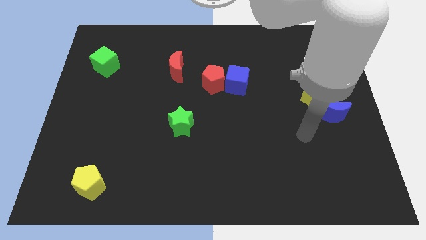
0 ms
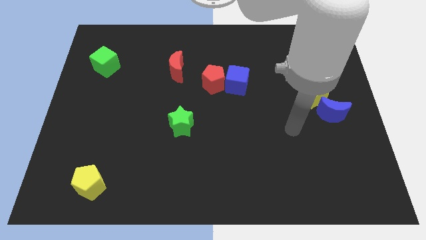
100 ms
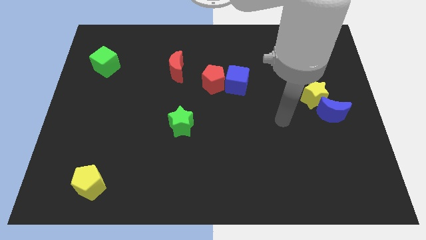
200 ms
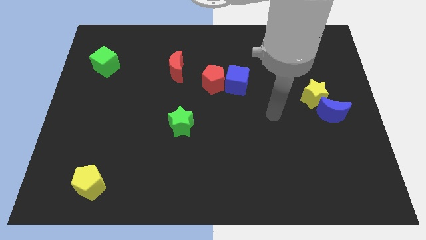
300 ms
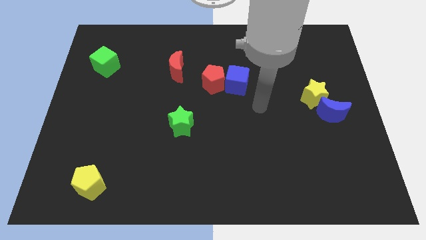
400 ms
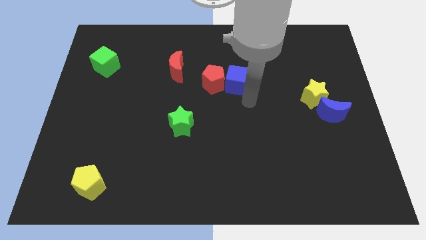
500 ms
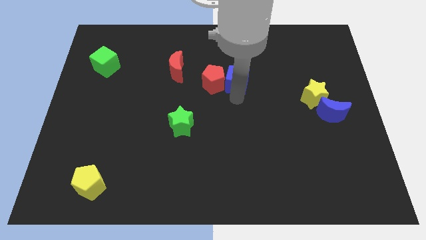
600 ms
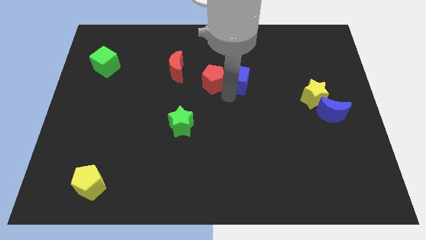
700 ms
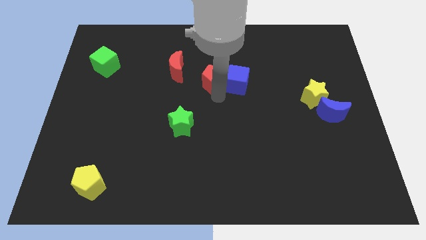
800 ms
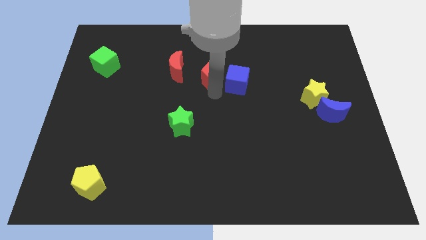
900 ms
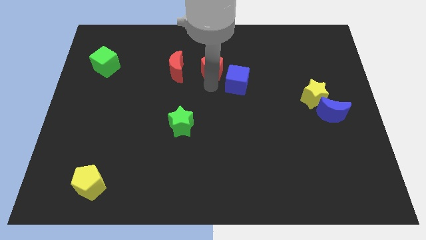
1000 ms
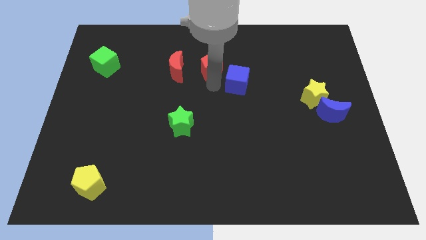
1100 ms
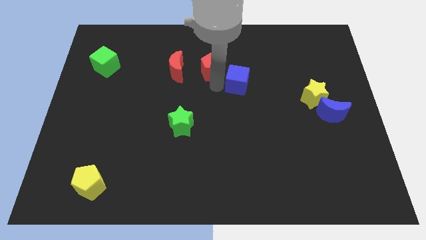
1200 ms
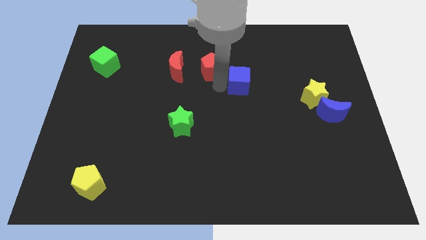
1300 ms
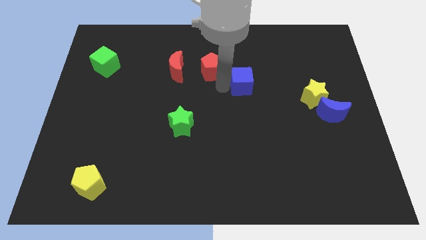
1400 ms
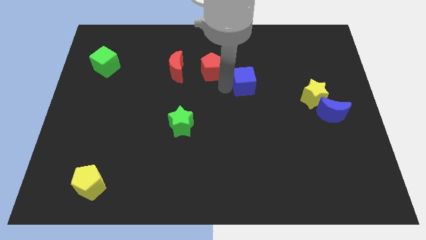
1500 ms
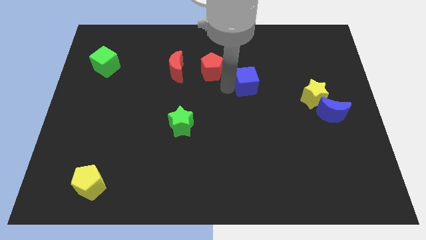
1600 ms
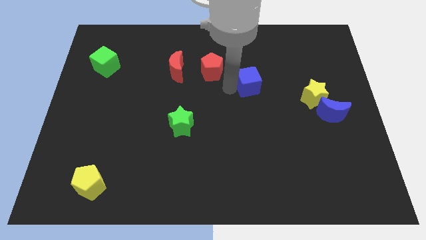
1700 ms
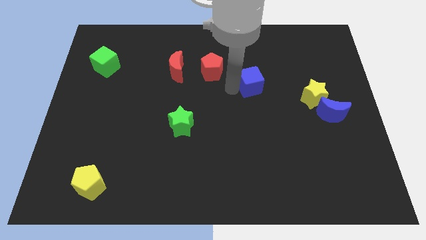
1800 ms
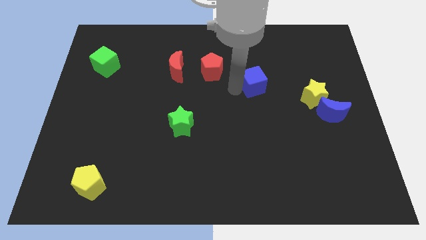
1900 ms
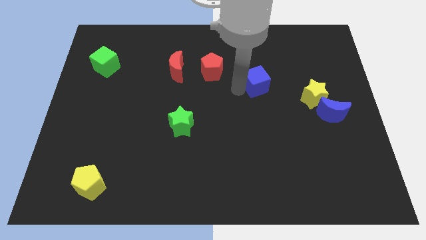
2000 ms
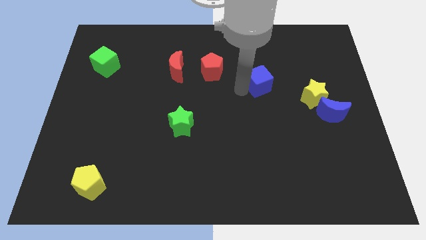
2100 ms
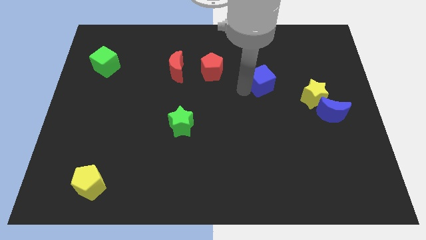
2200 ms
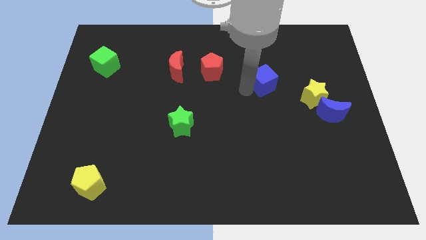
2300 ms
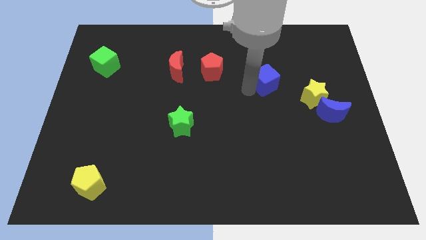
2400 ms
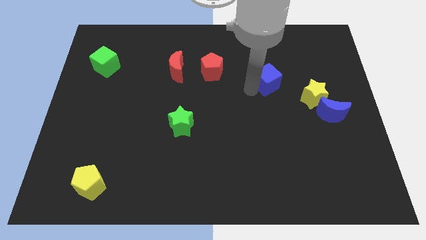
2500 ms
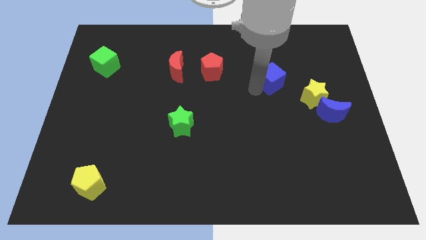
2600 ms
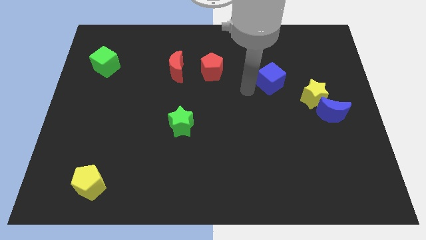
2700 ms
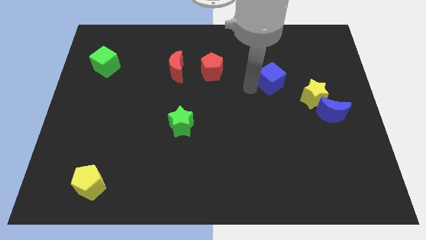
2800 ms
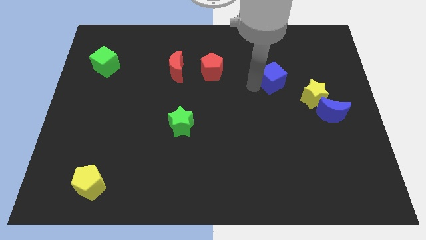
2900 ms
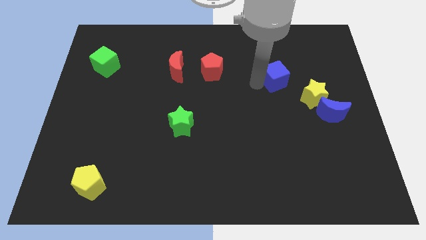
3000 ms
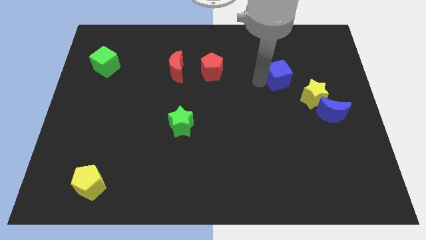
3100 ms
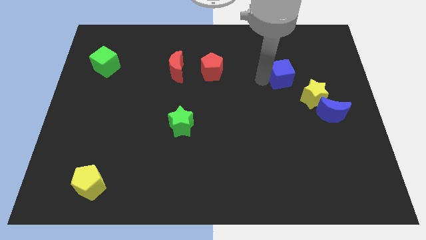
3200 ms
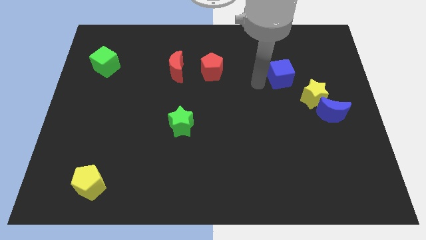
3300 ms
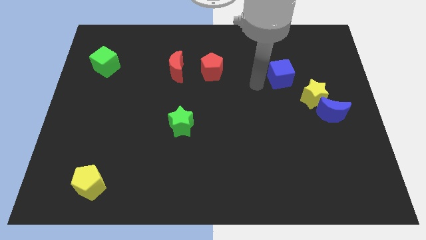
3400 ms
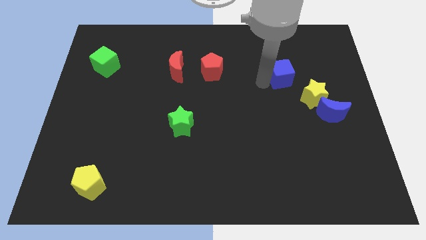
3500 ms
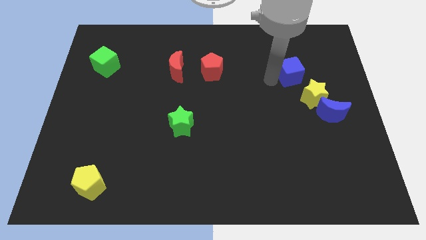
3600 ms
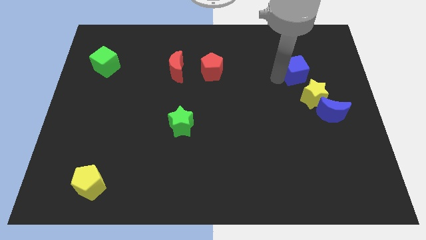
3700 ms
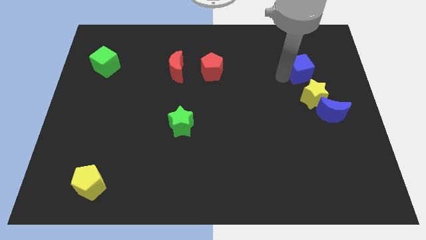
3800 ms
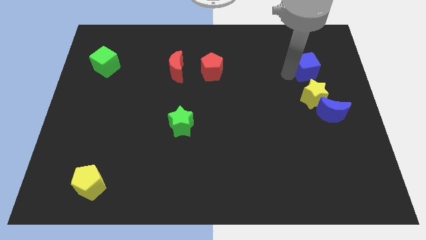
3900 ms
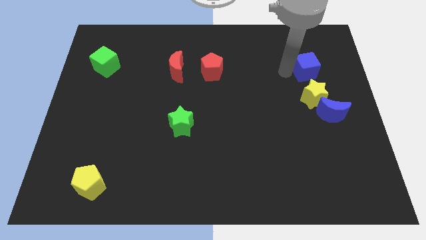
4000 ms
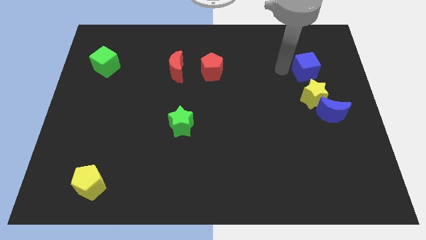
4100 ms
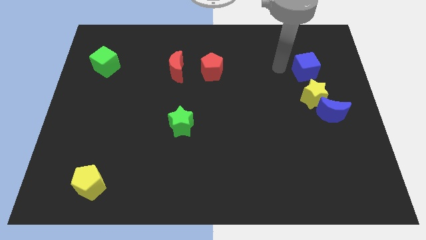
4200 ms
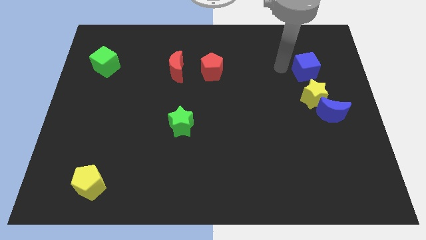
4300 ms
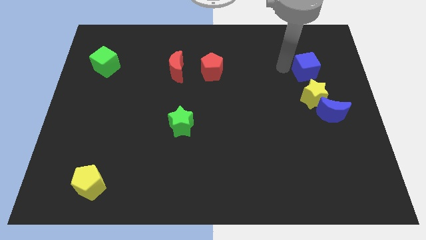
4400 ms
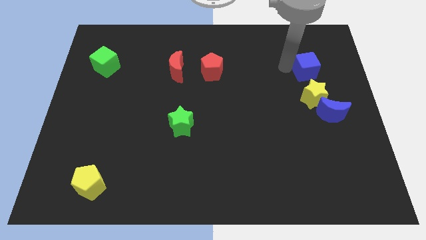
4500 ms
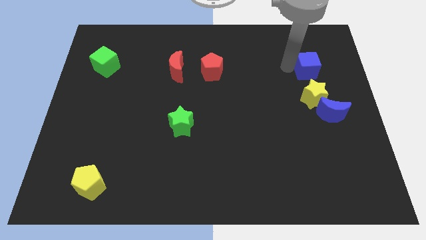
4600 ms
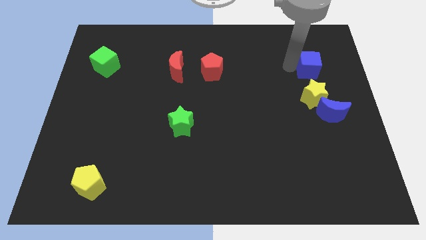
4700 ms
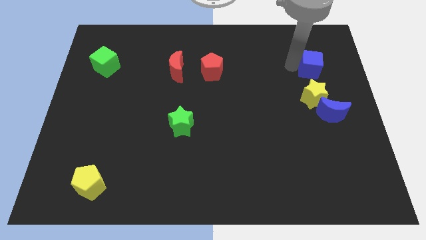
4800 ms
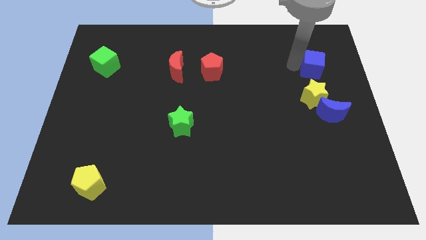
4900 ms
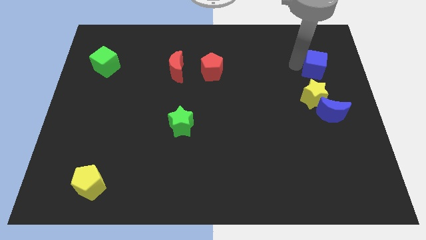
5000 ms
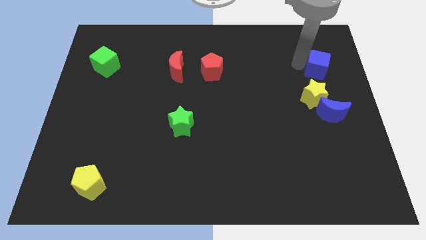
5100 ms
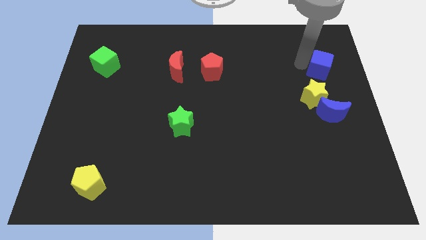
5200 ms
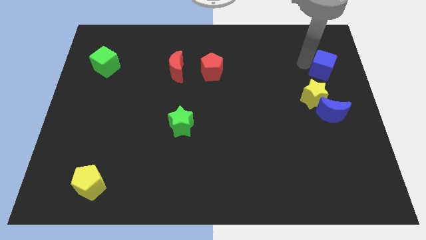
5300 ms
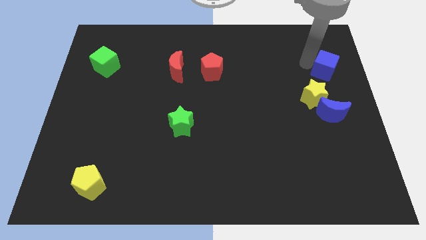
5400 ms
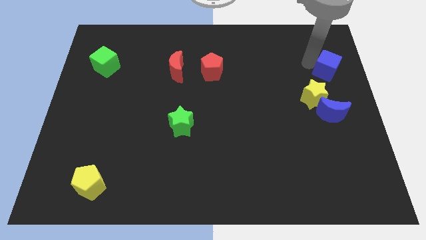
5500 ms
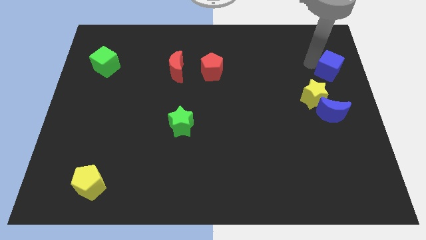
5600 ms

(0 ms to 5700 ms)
put the blue cube to the right side of the board

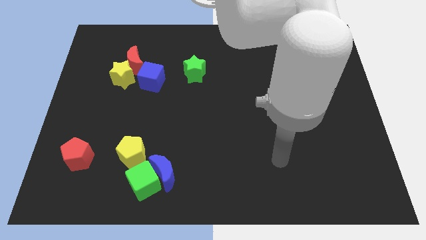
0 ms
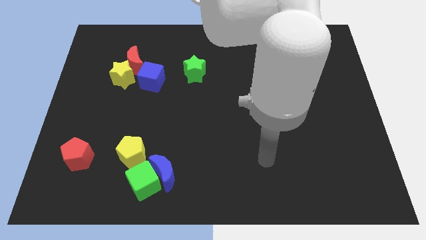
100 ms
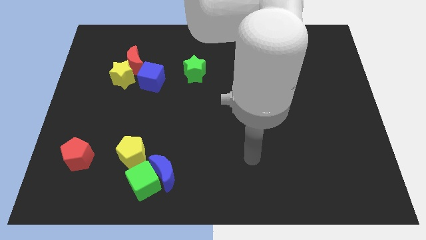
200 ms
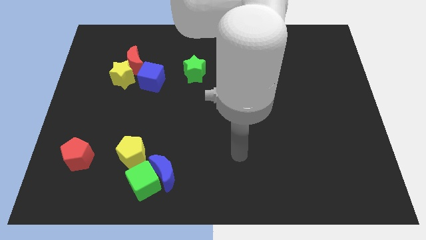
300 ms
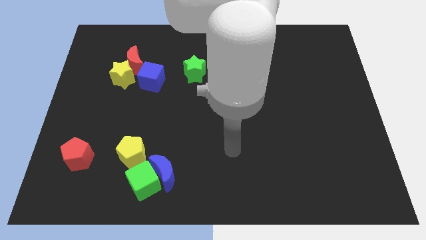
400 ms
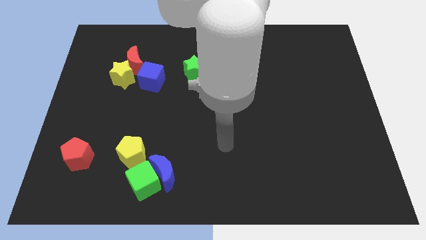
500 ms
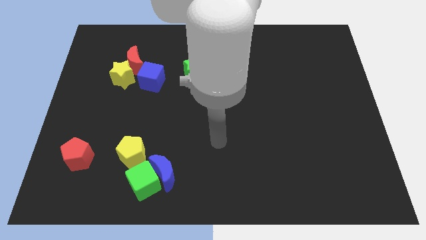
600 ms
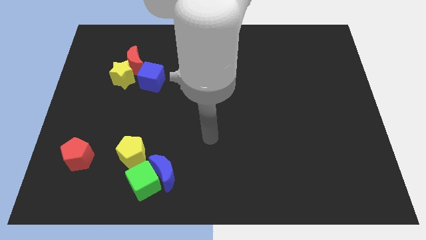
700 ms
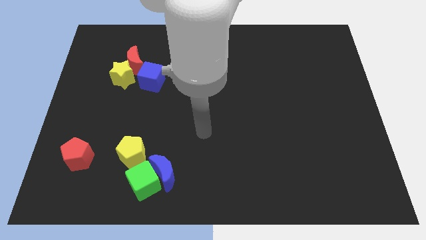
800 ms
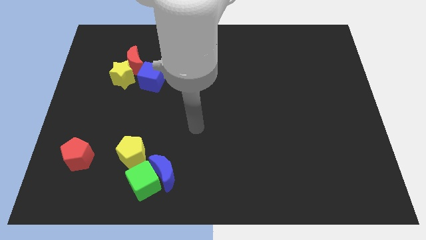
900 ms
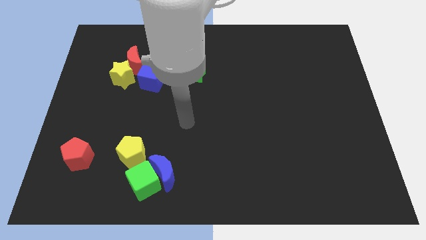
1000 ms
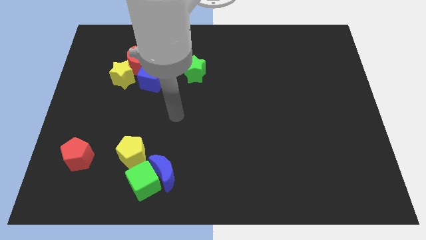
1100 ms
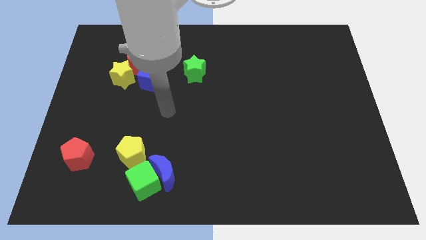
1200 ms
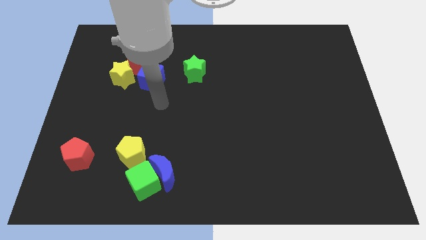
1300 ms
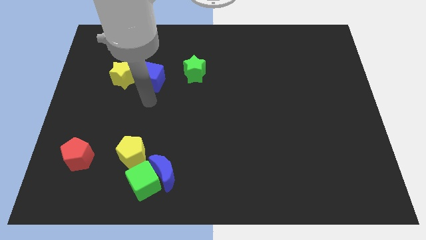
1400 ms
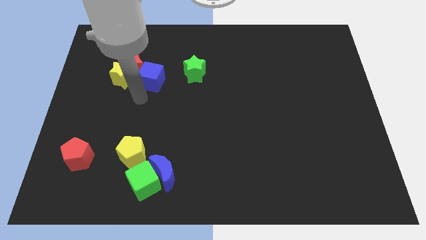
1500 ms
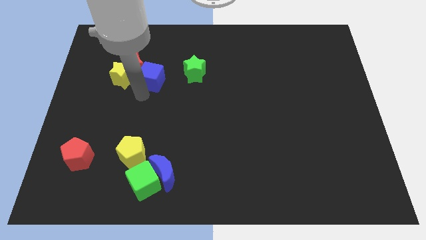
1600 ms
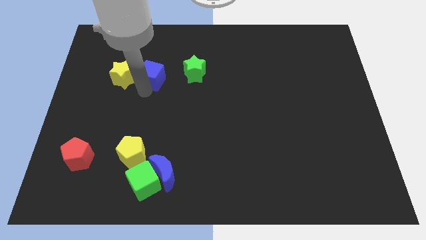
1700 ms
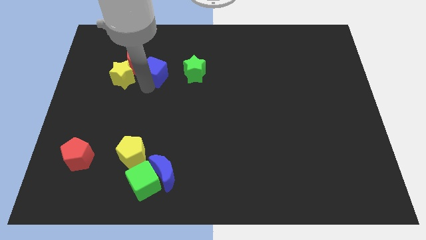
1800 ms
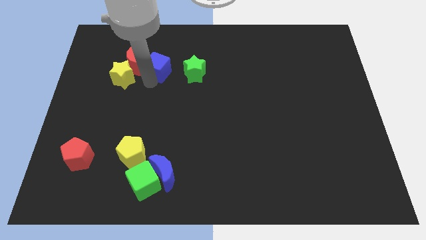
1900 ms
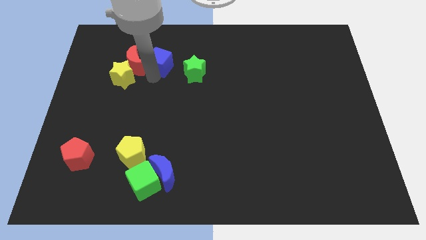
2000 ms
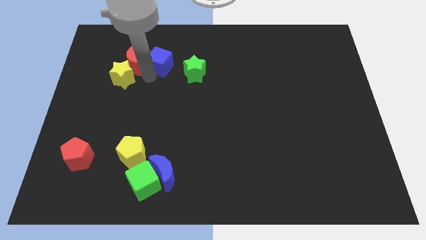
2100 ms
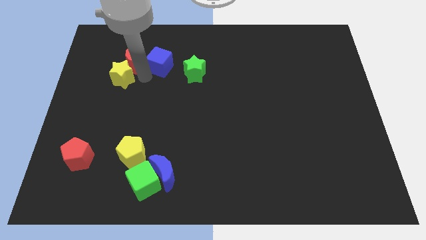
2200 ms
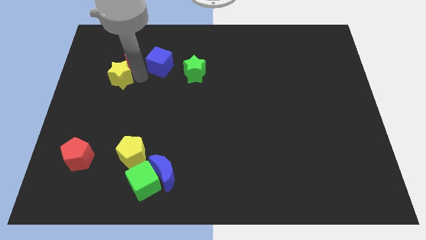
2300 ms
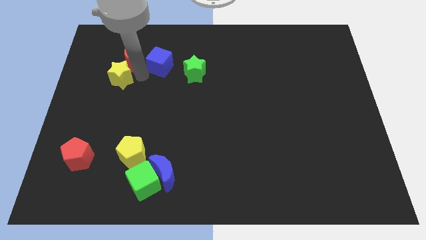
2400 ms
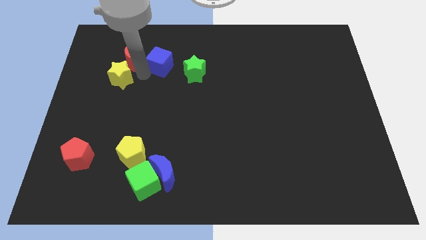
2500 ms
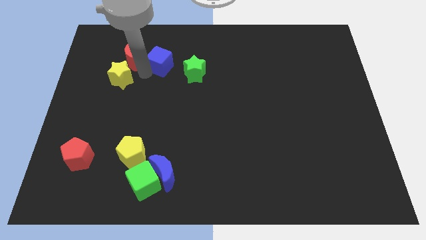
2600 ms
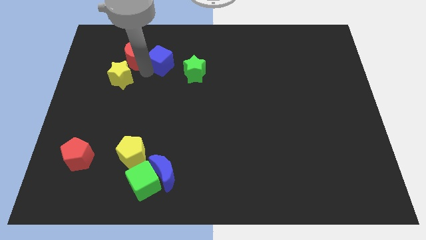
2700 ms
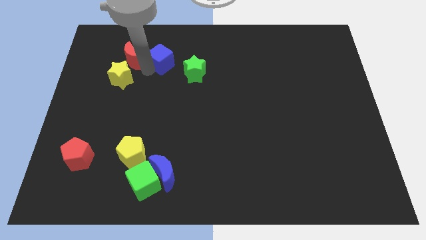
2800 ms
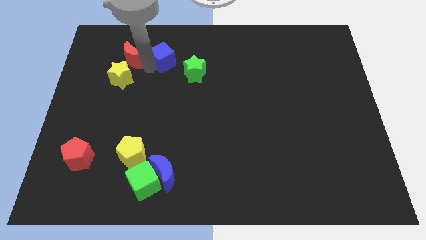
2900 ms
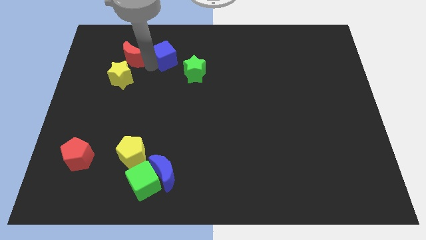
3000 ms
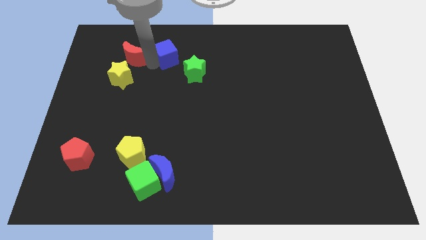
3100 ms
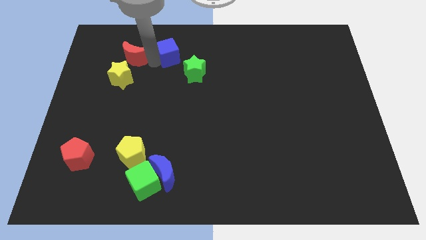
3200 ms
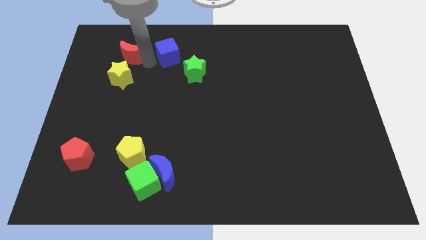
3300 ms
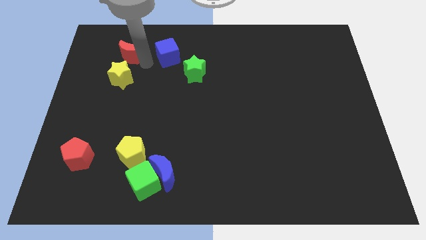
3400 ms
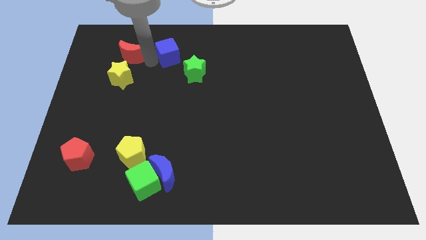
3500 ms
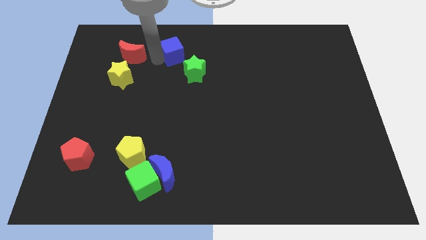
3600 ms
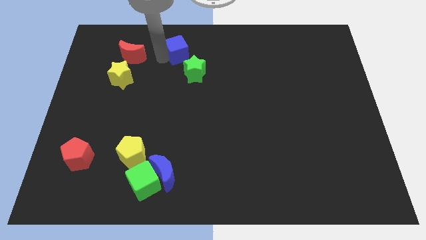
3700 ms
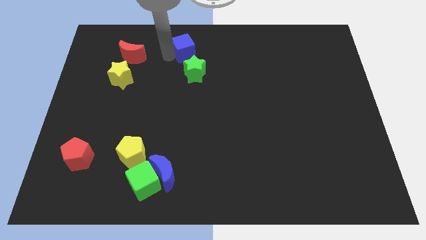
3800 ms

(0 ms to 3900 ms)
put the blue cube to the towards your base
